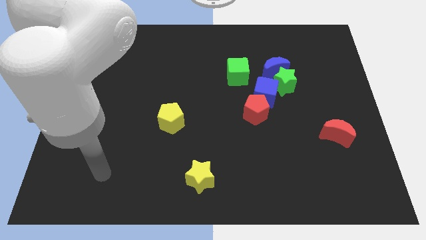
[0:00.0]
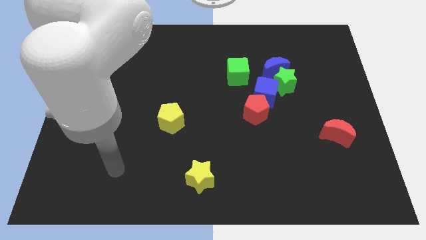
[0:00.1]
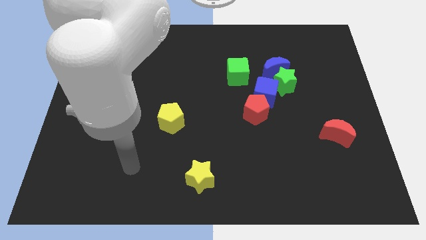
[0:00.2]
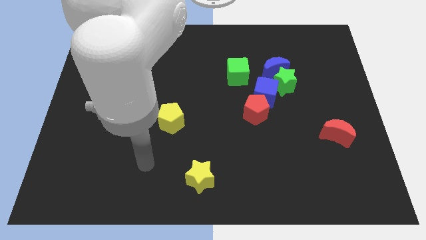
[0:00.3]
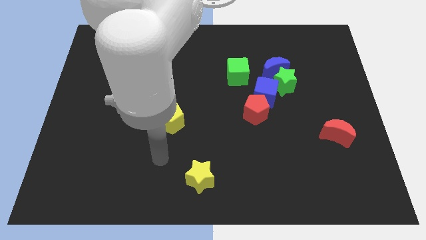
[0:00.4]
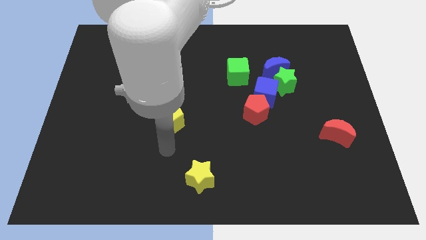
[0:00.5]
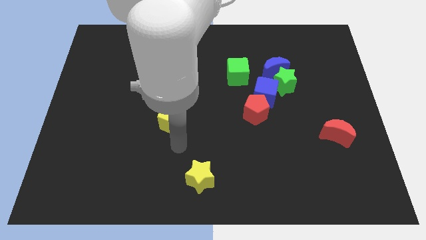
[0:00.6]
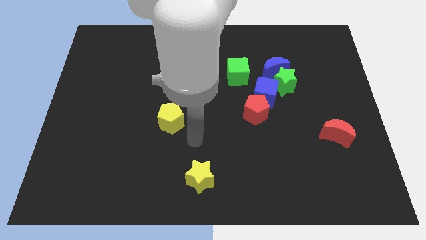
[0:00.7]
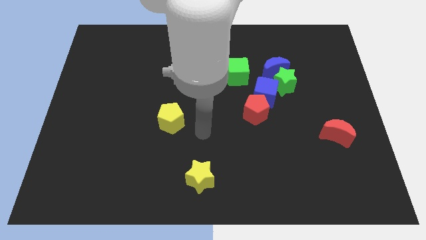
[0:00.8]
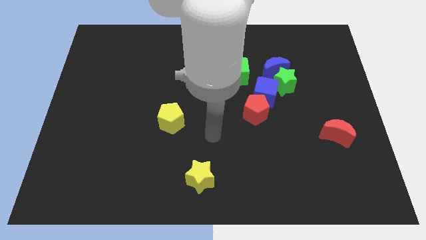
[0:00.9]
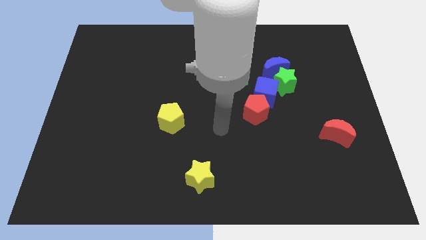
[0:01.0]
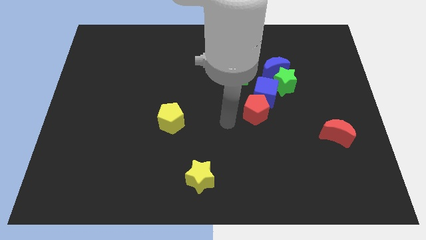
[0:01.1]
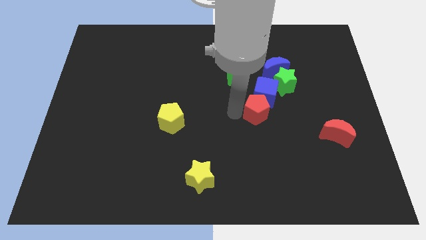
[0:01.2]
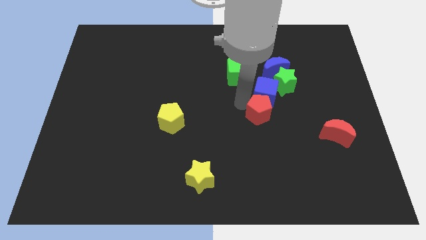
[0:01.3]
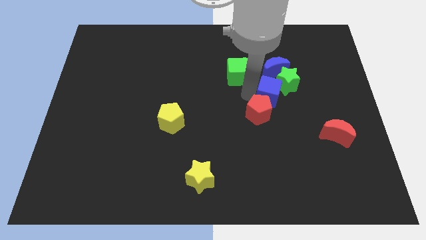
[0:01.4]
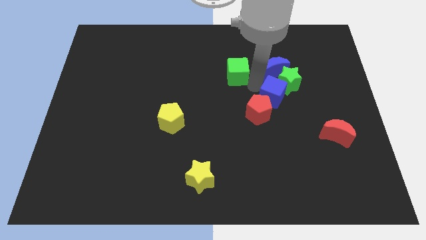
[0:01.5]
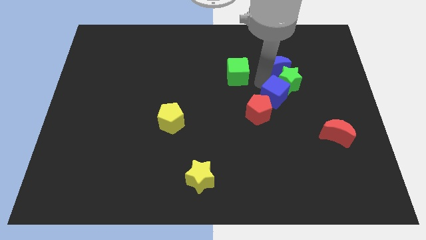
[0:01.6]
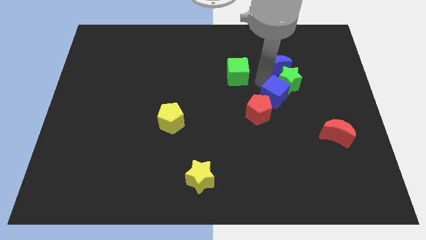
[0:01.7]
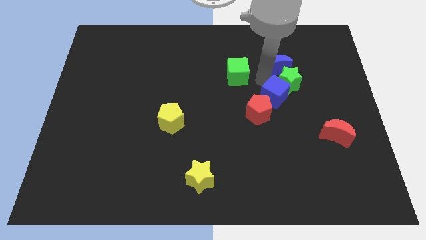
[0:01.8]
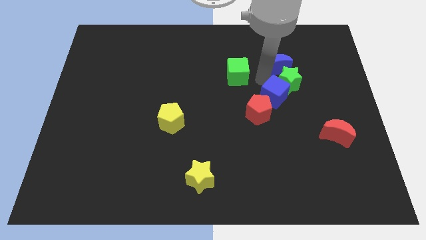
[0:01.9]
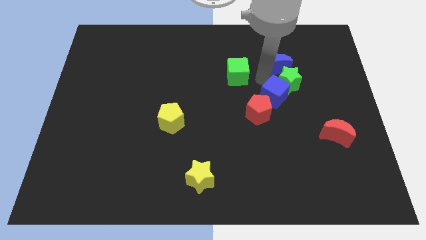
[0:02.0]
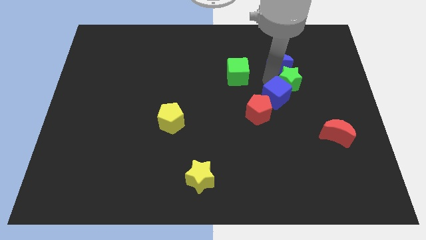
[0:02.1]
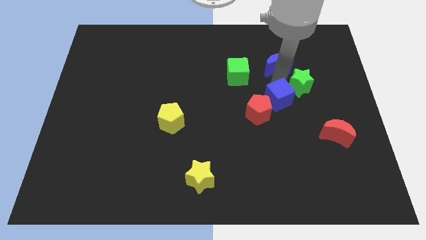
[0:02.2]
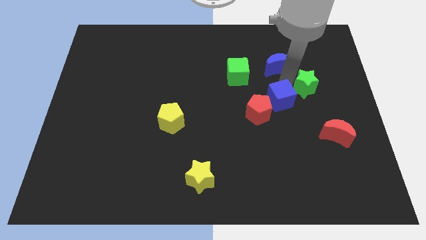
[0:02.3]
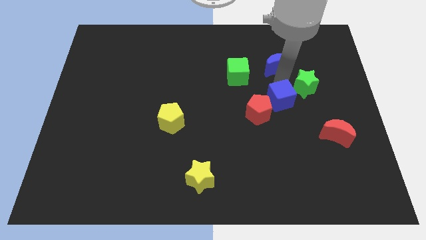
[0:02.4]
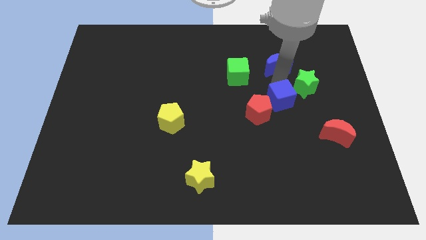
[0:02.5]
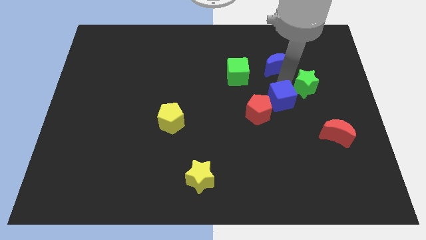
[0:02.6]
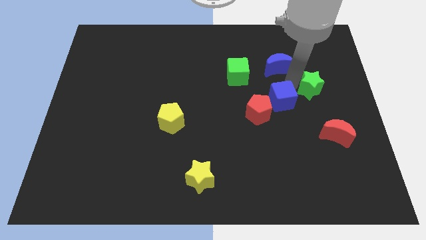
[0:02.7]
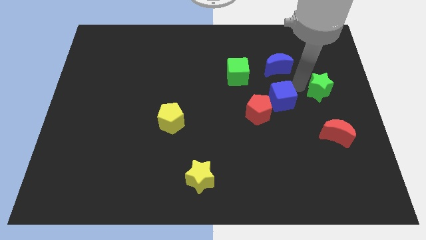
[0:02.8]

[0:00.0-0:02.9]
separate the green star from the blue moon and blue cube

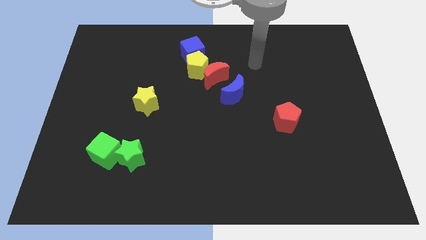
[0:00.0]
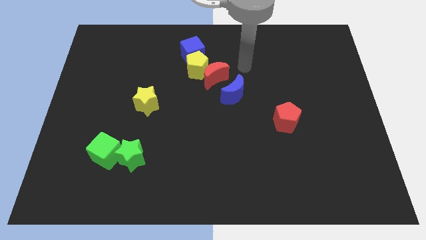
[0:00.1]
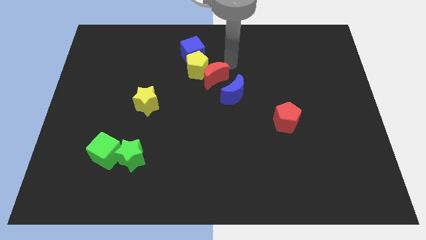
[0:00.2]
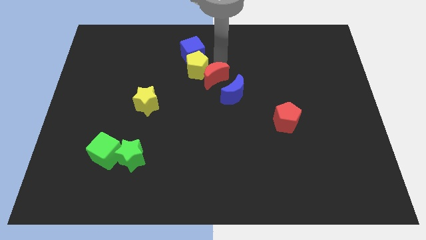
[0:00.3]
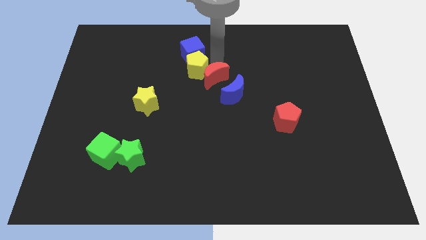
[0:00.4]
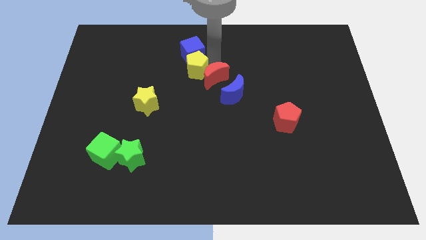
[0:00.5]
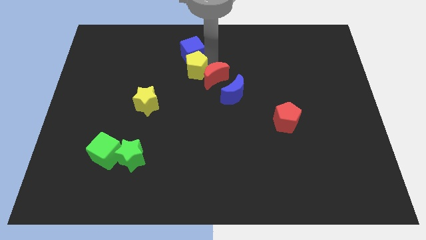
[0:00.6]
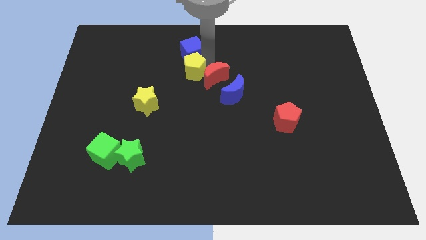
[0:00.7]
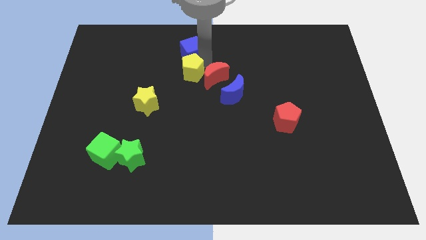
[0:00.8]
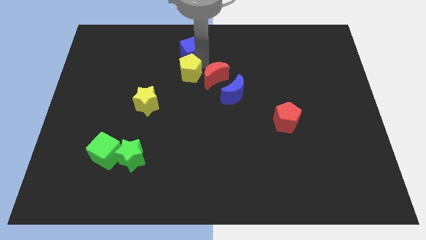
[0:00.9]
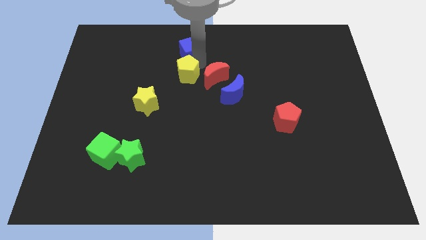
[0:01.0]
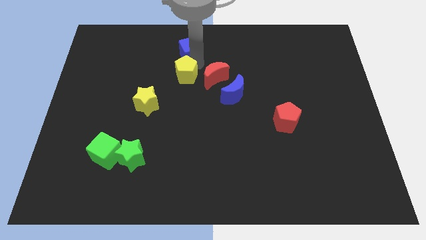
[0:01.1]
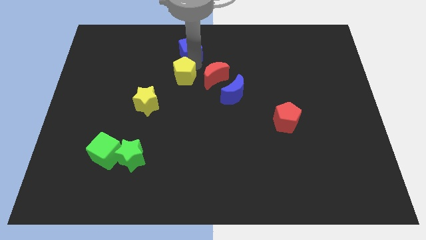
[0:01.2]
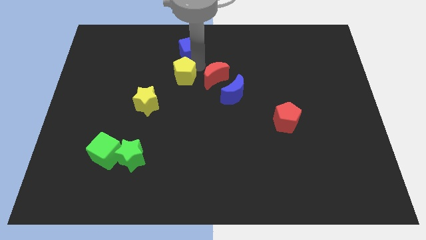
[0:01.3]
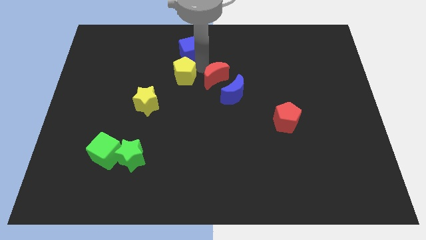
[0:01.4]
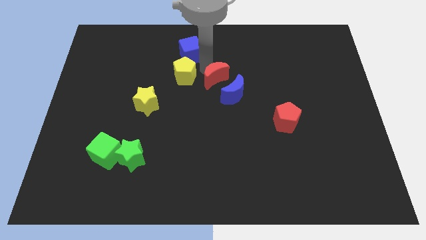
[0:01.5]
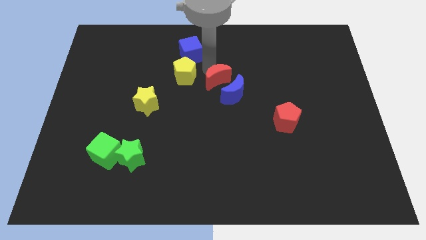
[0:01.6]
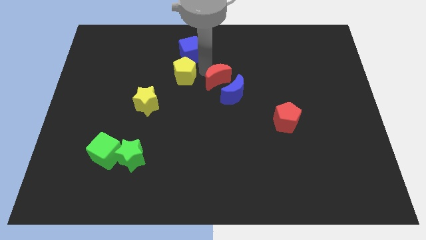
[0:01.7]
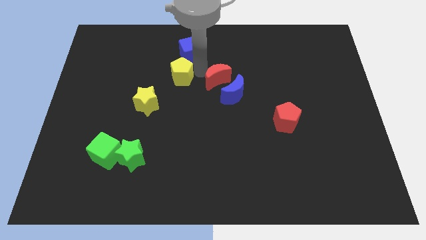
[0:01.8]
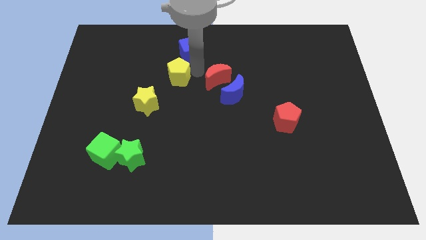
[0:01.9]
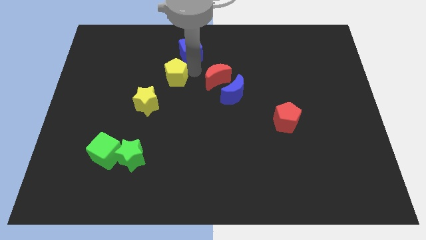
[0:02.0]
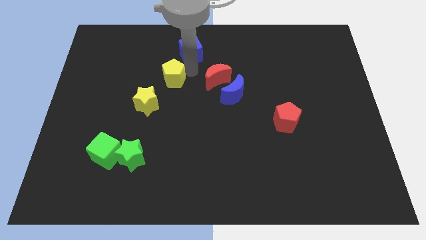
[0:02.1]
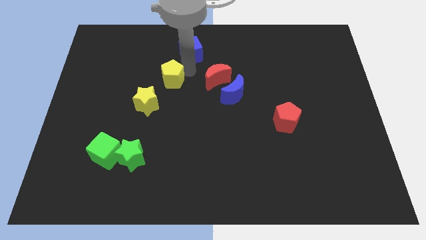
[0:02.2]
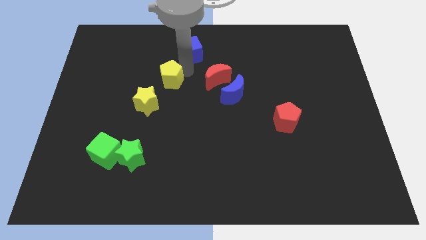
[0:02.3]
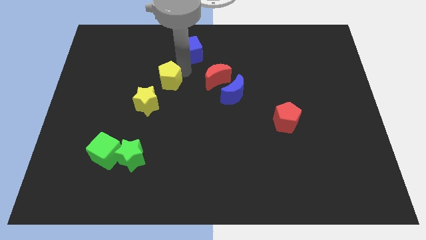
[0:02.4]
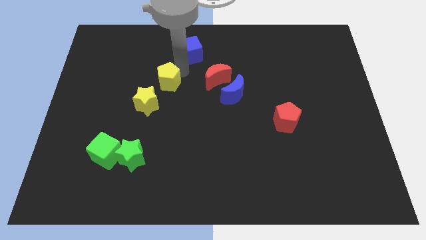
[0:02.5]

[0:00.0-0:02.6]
move the yellow pentagon away from the blue cube and red moon

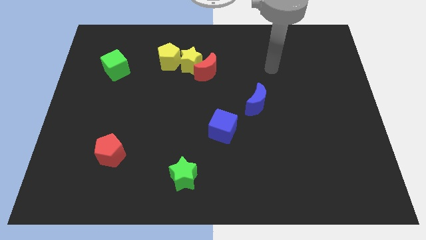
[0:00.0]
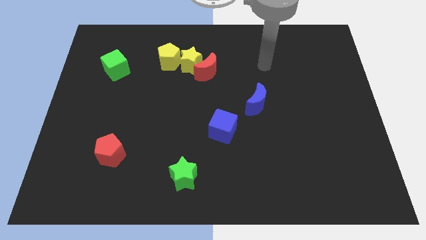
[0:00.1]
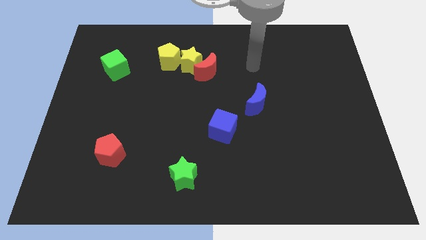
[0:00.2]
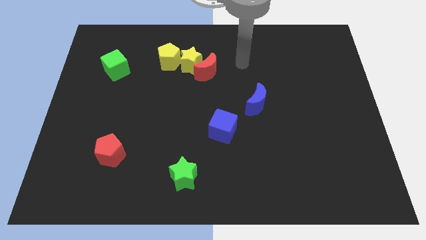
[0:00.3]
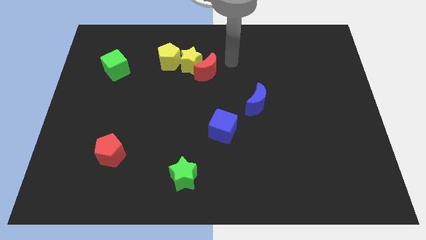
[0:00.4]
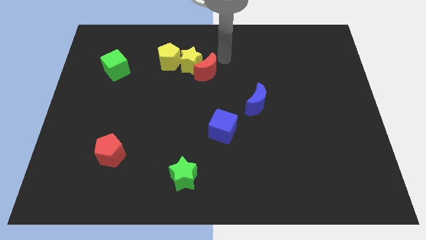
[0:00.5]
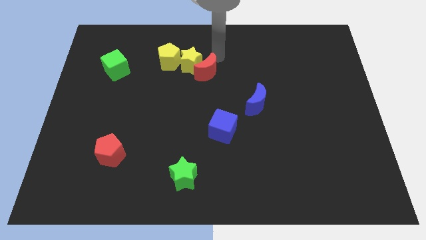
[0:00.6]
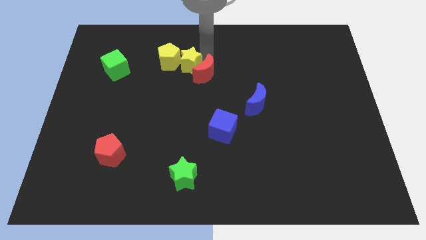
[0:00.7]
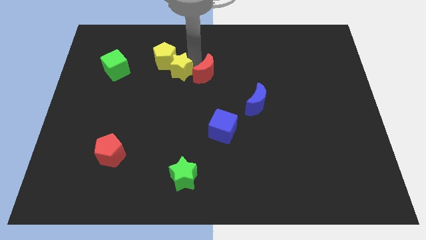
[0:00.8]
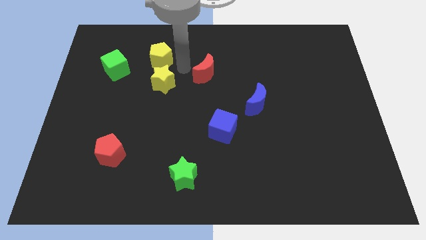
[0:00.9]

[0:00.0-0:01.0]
separate the red moon from the yellow star

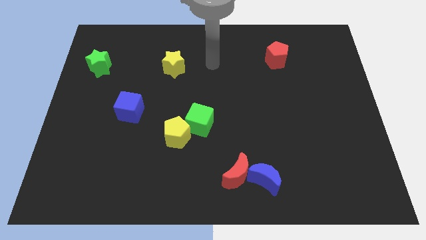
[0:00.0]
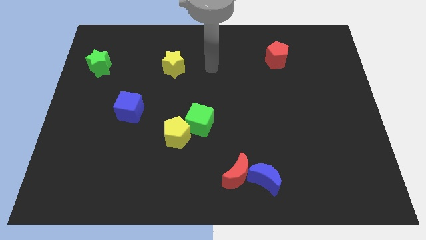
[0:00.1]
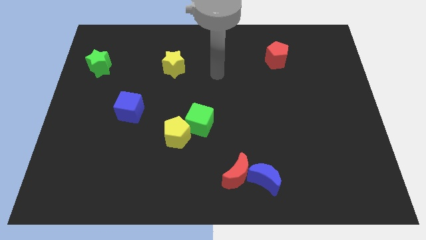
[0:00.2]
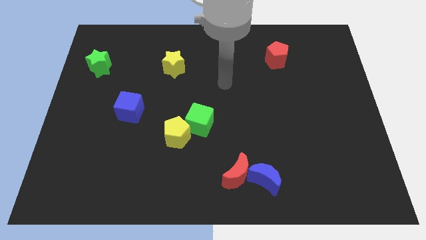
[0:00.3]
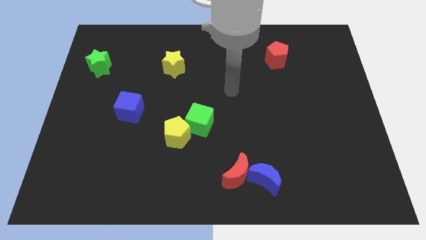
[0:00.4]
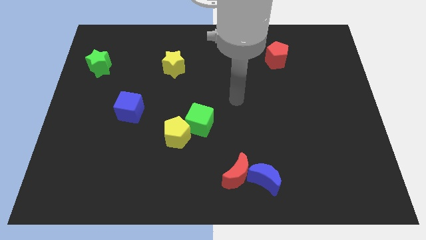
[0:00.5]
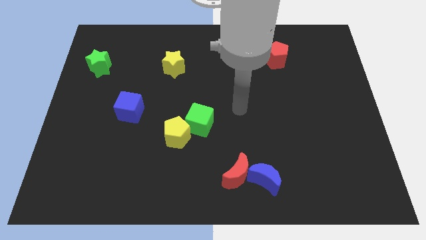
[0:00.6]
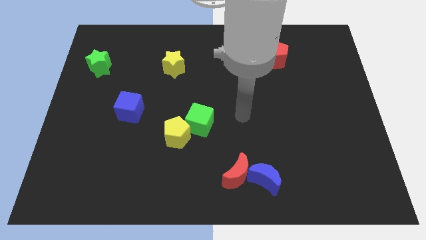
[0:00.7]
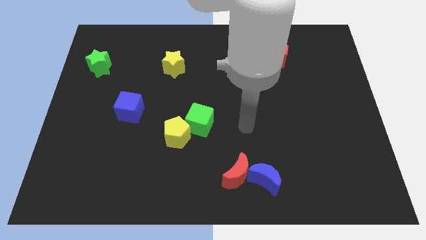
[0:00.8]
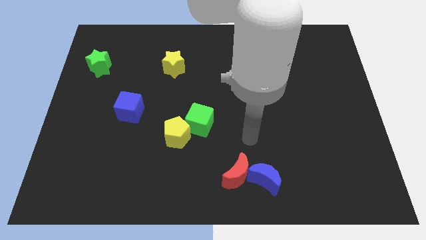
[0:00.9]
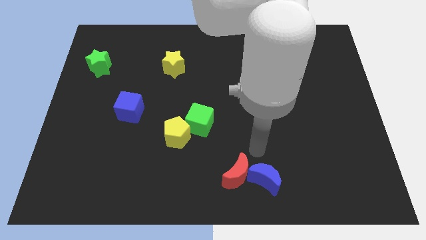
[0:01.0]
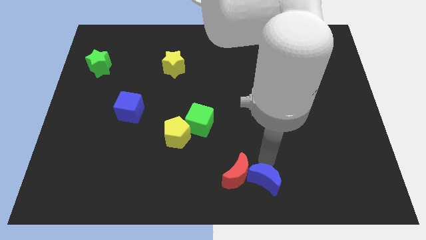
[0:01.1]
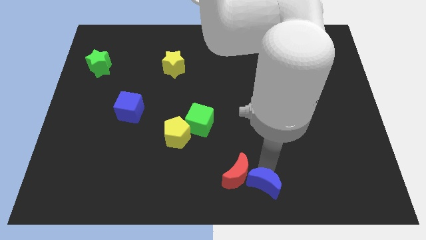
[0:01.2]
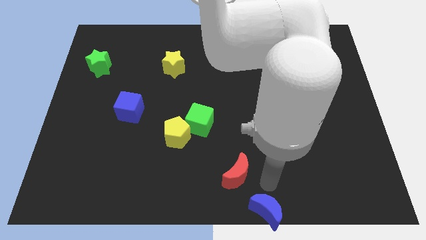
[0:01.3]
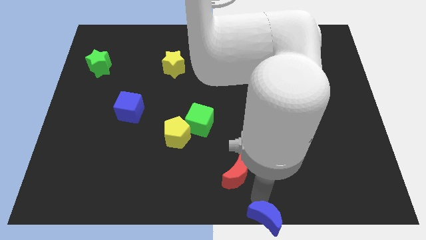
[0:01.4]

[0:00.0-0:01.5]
move the red moon away from the blue moon

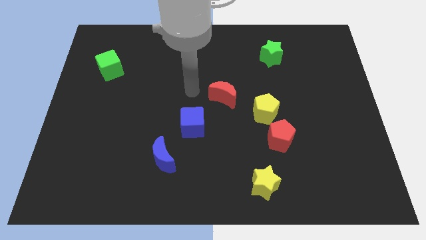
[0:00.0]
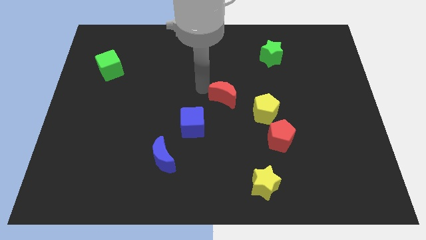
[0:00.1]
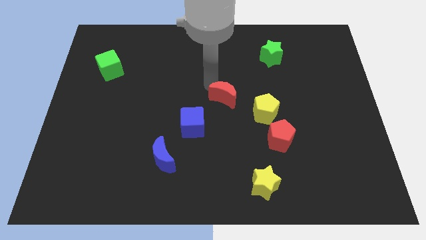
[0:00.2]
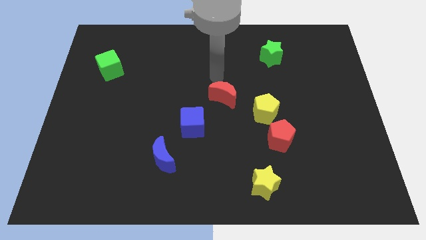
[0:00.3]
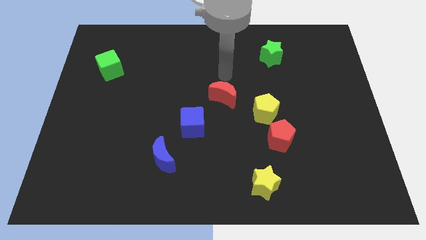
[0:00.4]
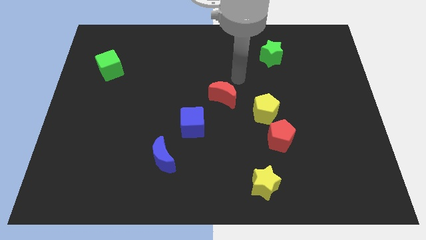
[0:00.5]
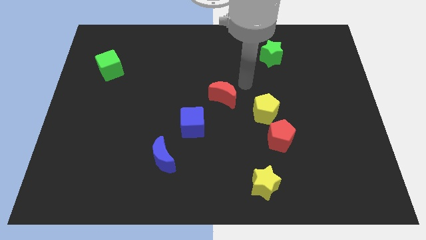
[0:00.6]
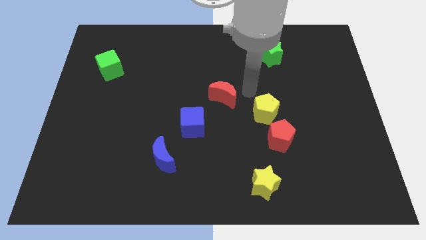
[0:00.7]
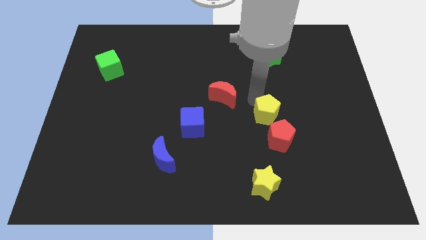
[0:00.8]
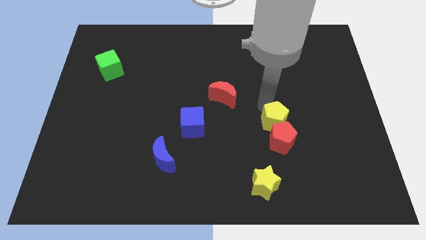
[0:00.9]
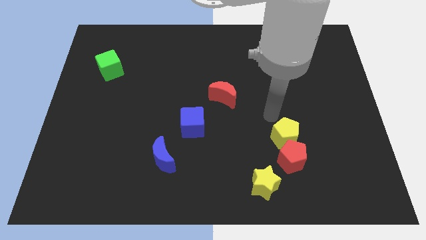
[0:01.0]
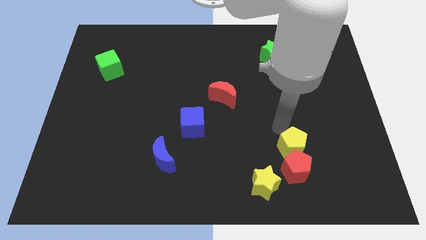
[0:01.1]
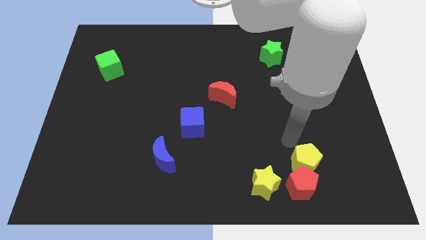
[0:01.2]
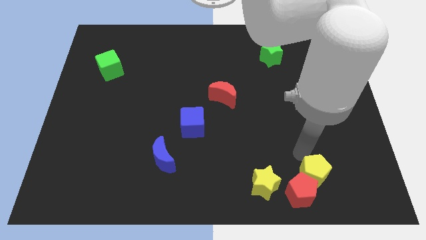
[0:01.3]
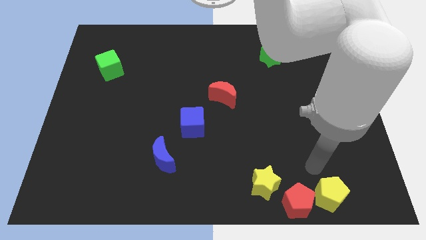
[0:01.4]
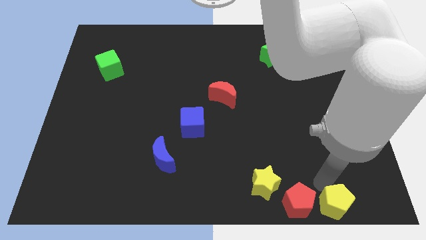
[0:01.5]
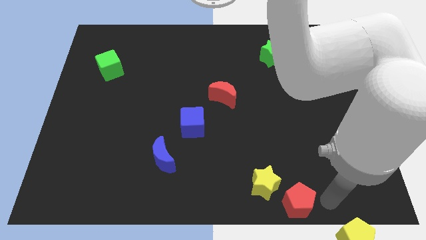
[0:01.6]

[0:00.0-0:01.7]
pull the red pentagon apart from the yellow pentagon
